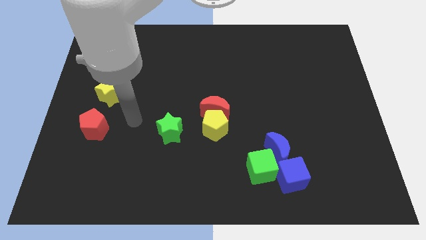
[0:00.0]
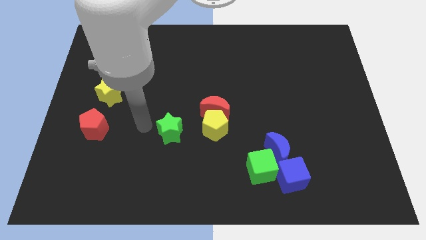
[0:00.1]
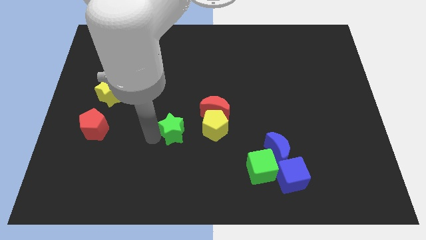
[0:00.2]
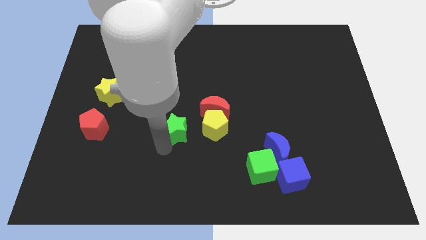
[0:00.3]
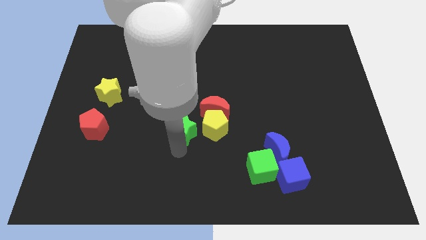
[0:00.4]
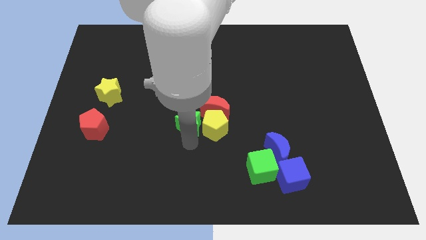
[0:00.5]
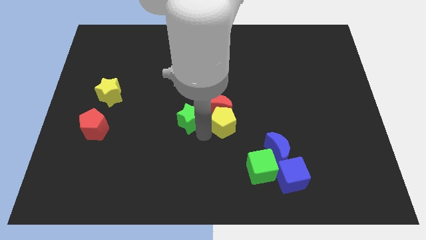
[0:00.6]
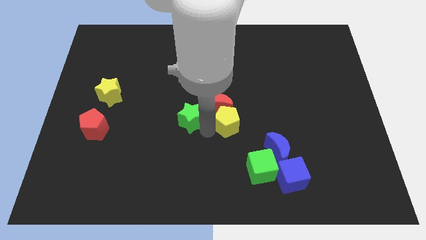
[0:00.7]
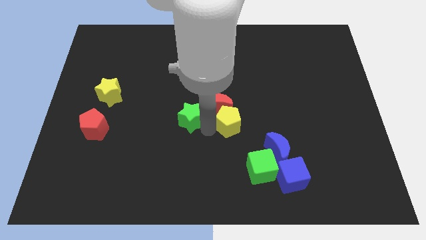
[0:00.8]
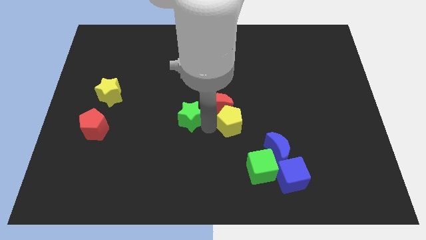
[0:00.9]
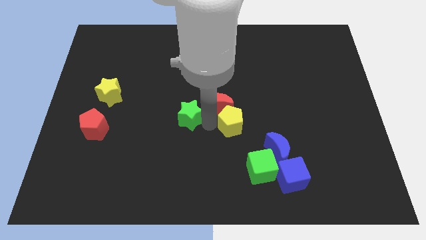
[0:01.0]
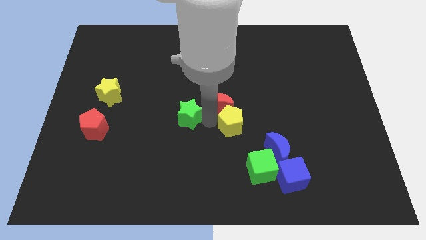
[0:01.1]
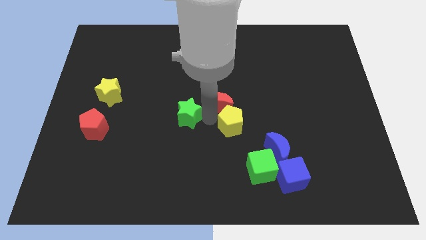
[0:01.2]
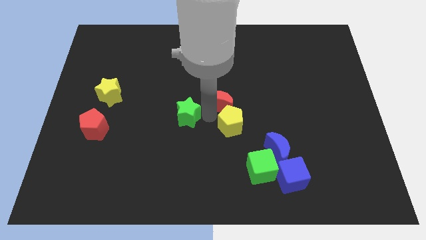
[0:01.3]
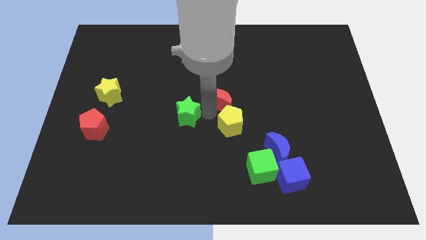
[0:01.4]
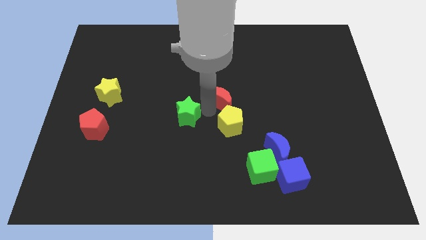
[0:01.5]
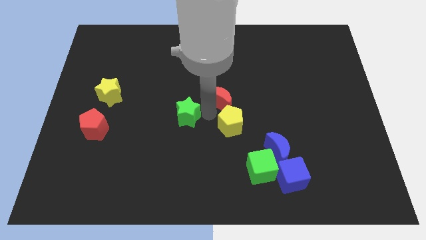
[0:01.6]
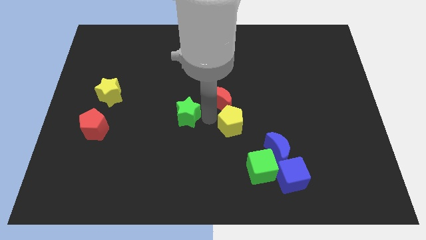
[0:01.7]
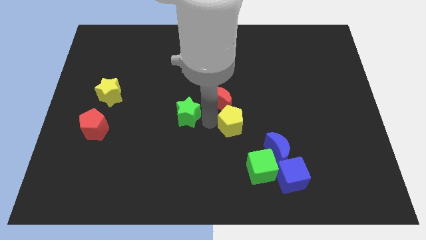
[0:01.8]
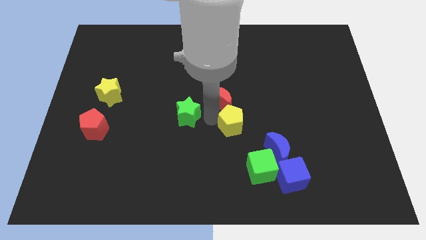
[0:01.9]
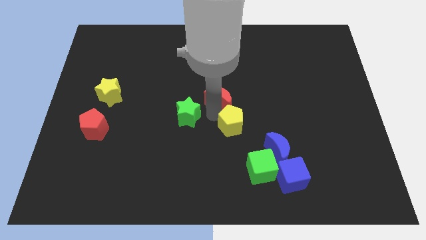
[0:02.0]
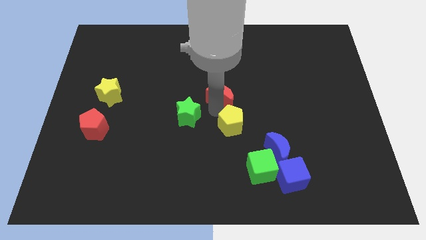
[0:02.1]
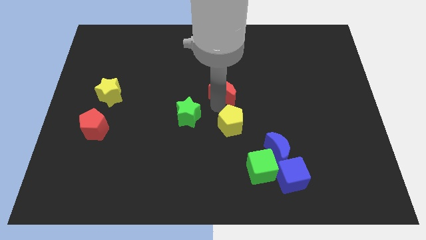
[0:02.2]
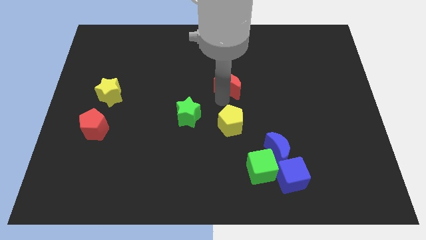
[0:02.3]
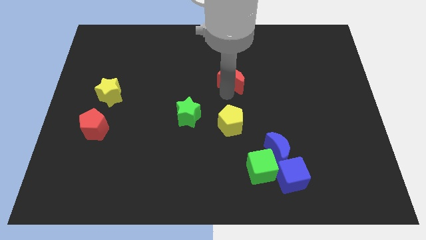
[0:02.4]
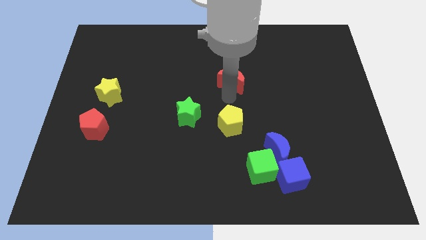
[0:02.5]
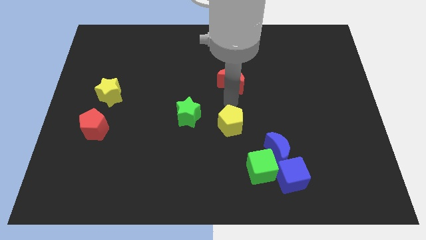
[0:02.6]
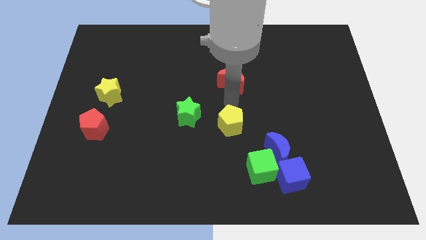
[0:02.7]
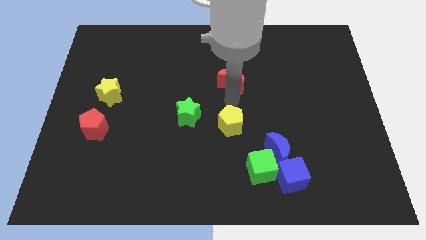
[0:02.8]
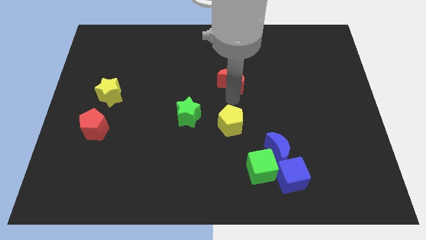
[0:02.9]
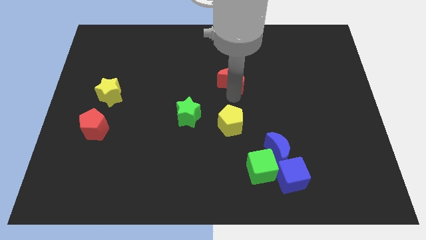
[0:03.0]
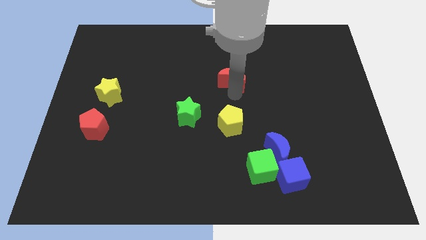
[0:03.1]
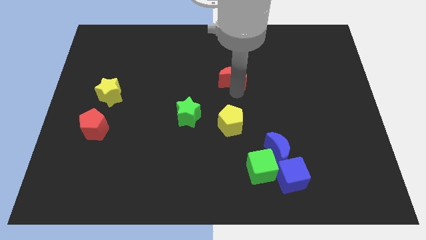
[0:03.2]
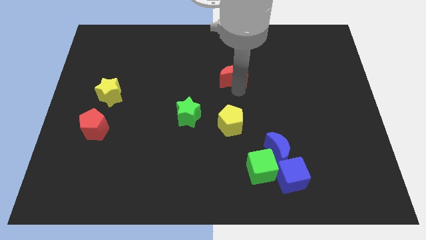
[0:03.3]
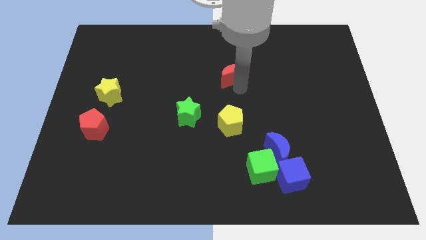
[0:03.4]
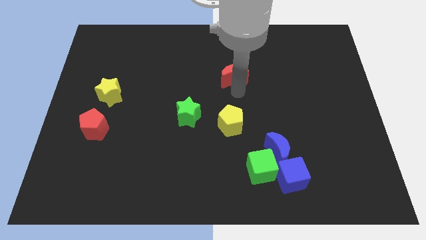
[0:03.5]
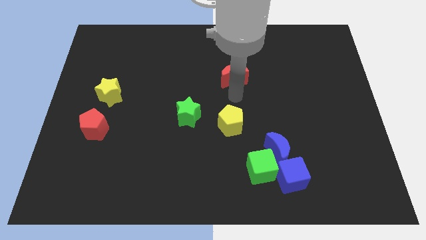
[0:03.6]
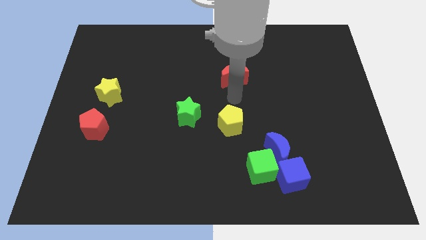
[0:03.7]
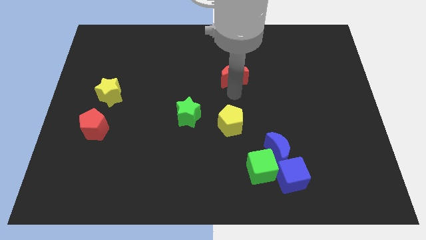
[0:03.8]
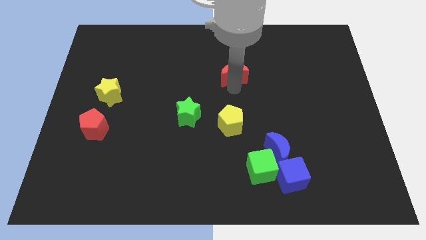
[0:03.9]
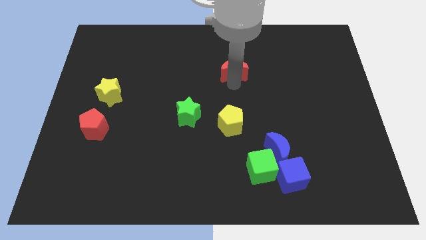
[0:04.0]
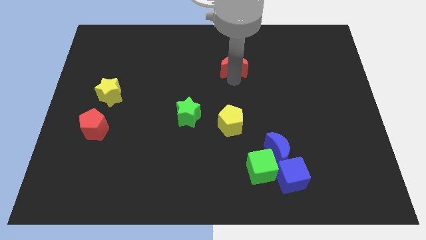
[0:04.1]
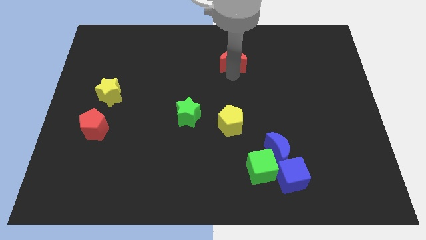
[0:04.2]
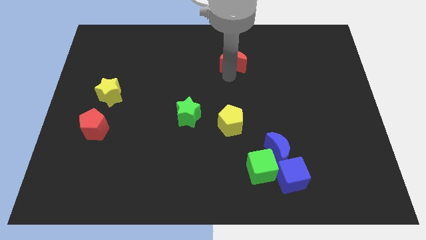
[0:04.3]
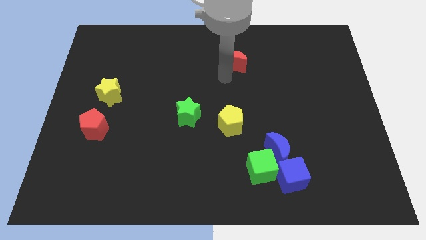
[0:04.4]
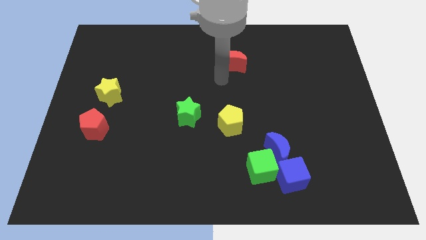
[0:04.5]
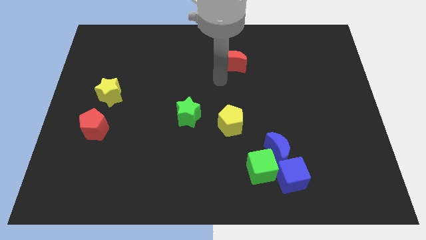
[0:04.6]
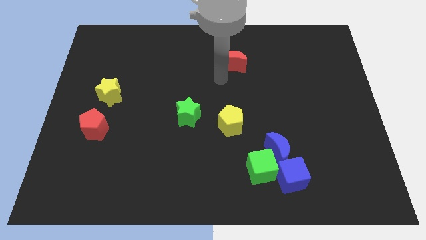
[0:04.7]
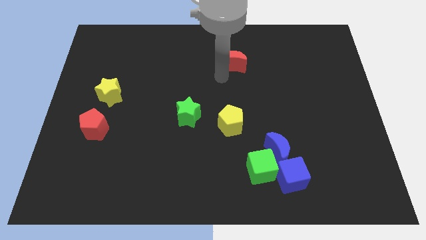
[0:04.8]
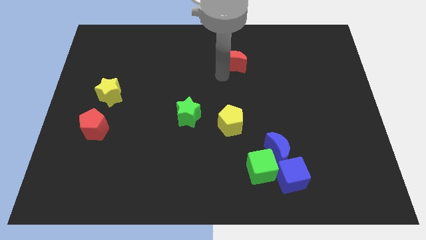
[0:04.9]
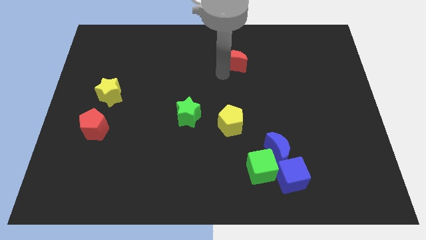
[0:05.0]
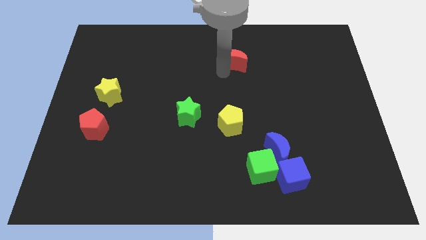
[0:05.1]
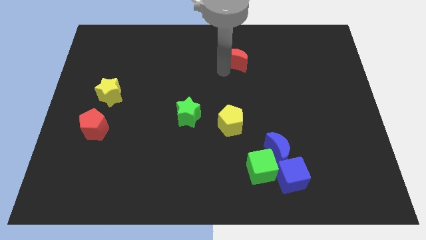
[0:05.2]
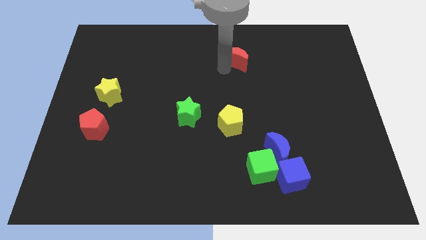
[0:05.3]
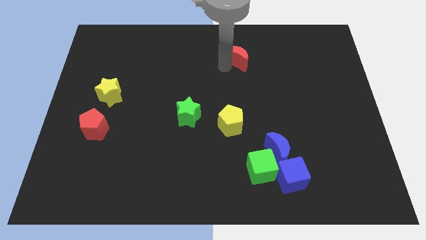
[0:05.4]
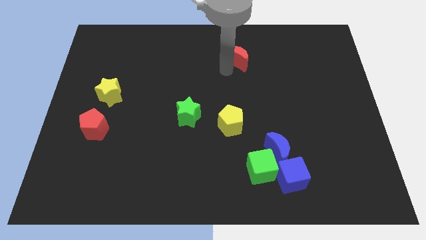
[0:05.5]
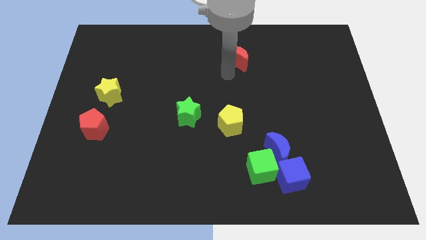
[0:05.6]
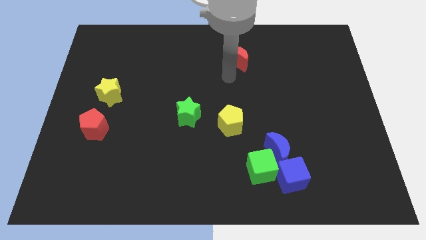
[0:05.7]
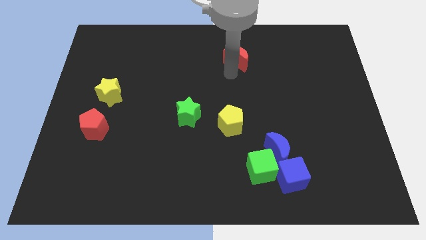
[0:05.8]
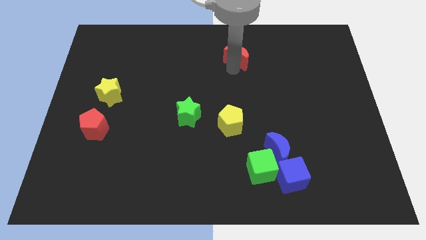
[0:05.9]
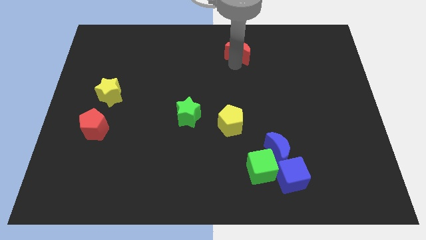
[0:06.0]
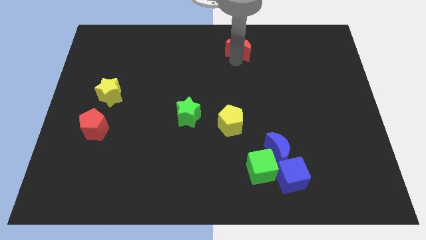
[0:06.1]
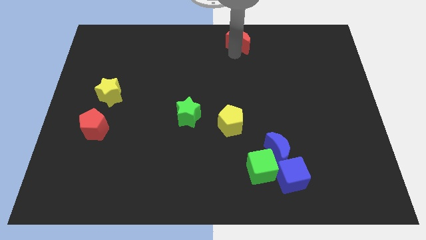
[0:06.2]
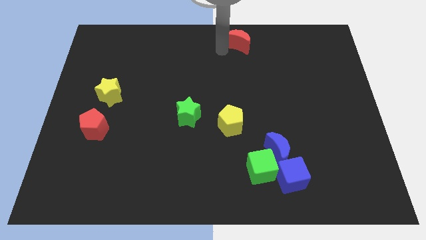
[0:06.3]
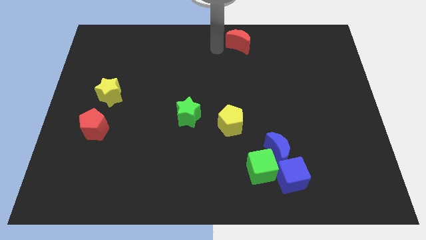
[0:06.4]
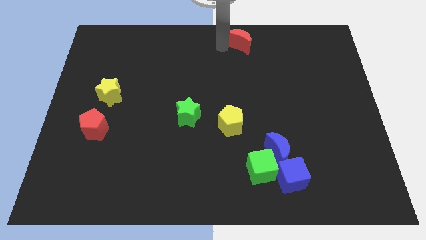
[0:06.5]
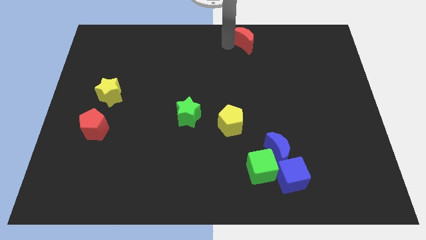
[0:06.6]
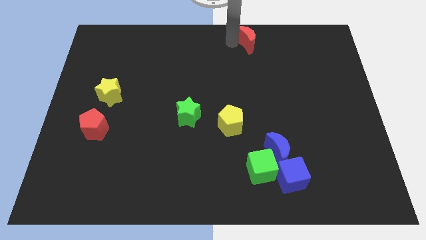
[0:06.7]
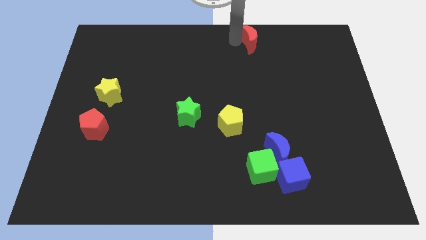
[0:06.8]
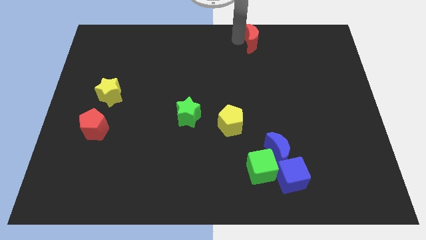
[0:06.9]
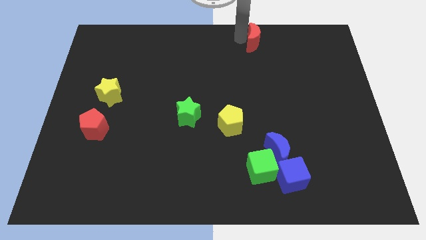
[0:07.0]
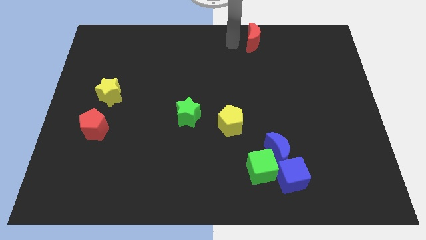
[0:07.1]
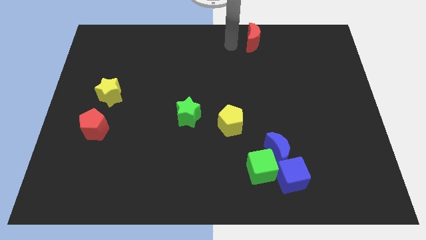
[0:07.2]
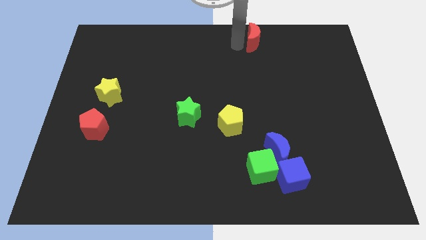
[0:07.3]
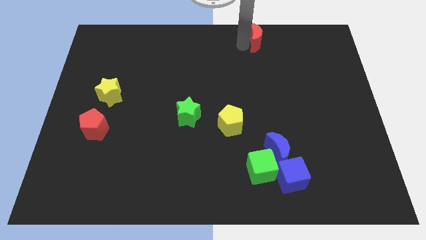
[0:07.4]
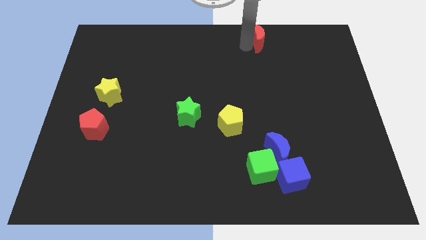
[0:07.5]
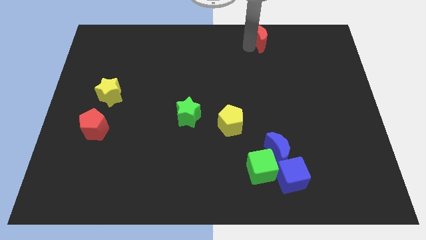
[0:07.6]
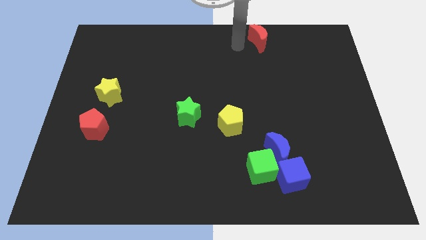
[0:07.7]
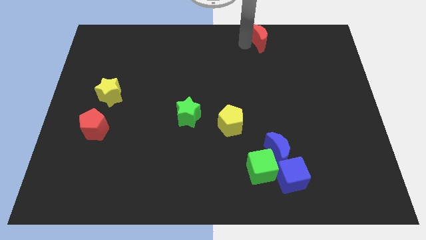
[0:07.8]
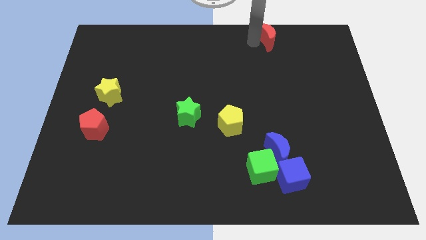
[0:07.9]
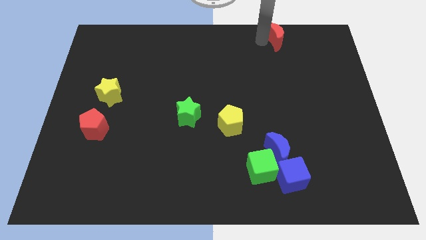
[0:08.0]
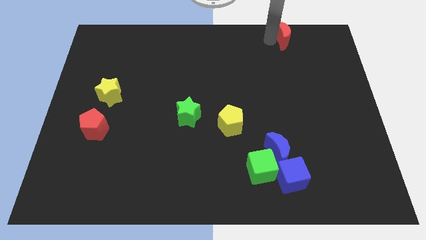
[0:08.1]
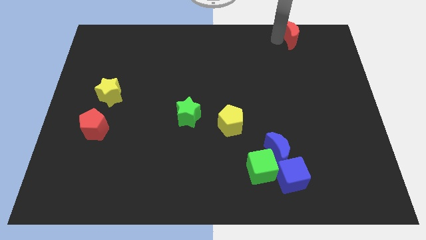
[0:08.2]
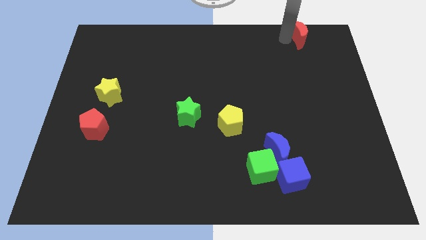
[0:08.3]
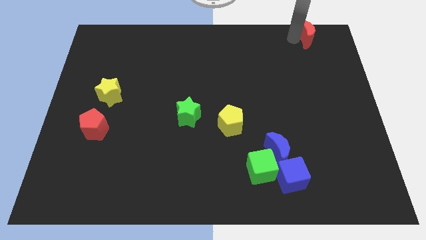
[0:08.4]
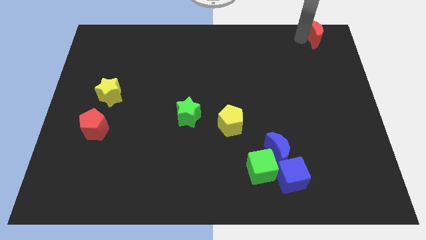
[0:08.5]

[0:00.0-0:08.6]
move the red moon to the top right
